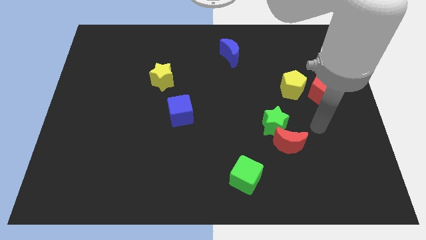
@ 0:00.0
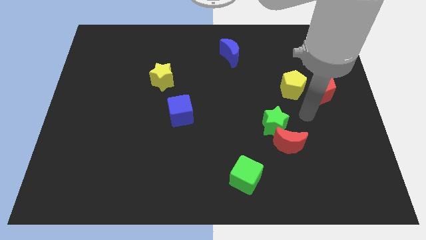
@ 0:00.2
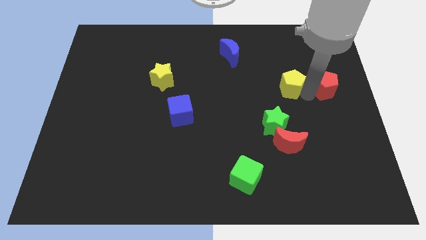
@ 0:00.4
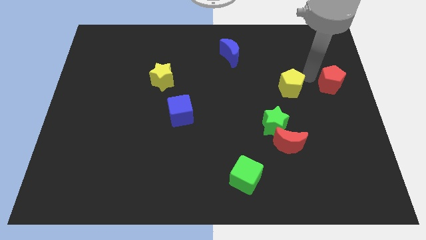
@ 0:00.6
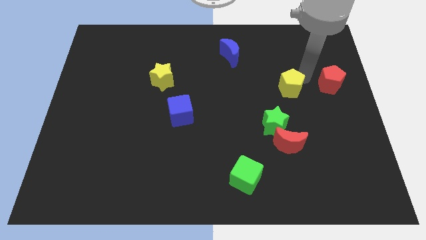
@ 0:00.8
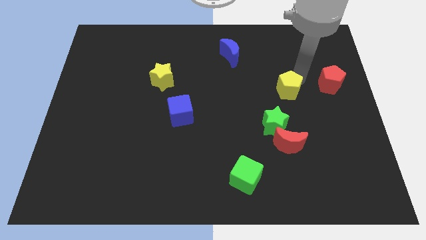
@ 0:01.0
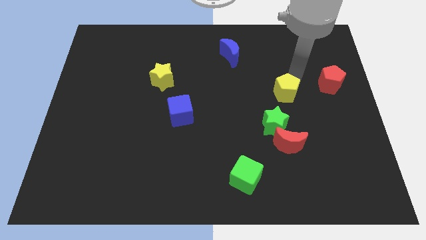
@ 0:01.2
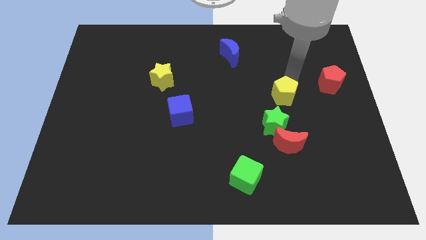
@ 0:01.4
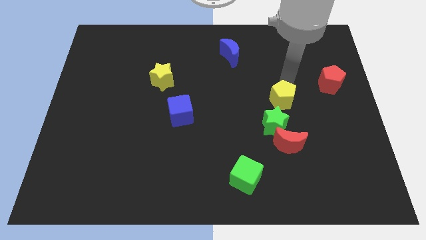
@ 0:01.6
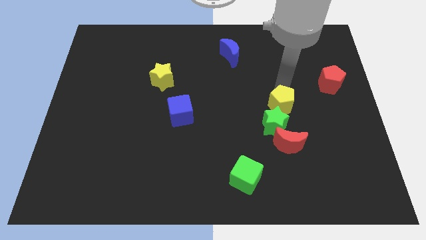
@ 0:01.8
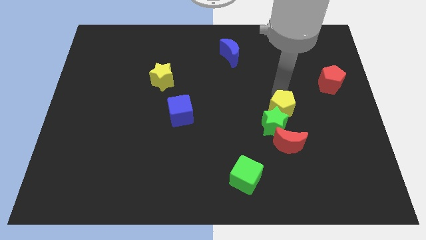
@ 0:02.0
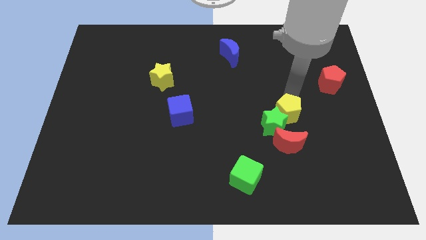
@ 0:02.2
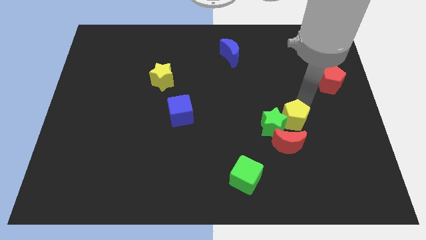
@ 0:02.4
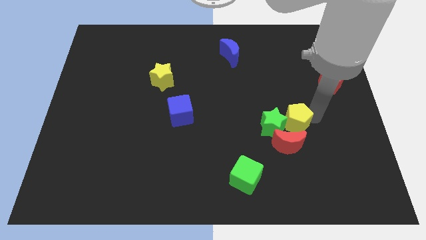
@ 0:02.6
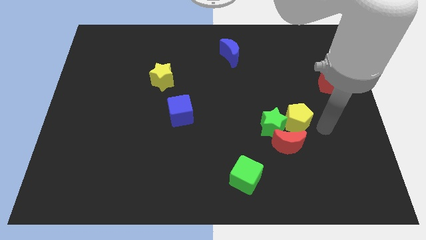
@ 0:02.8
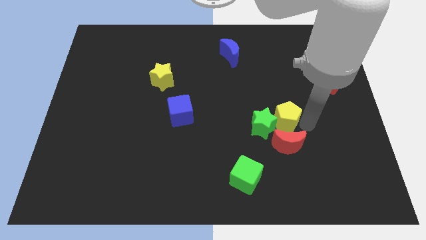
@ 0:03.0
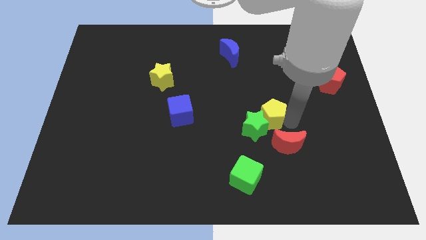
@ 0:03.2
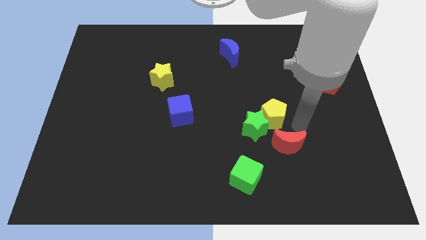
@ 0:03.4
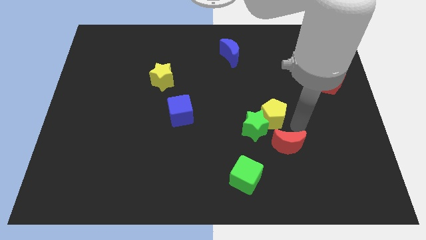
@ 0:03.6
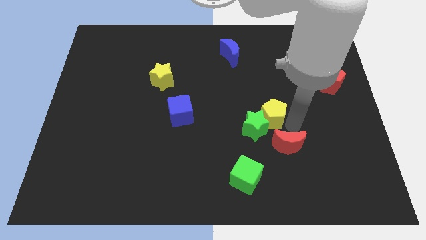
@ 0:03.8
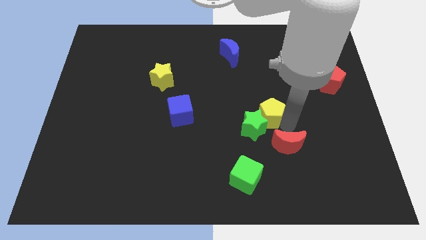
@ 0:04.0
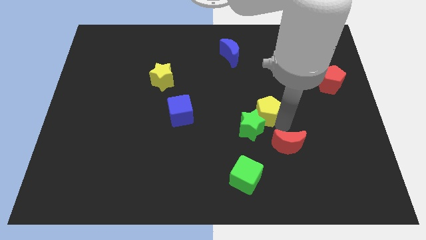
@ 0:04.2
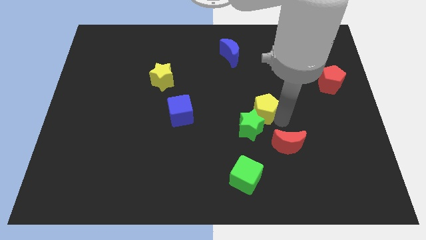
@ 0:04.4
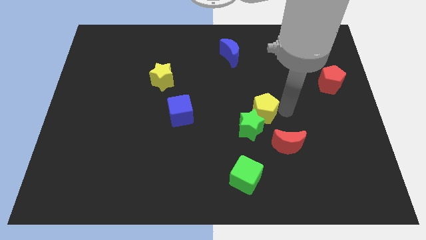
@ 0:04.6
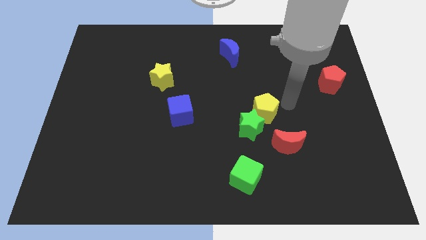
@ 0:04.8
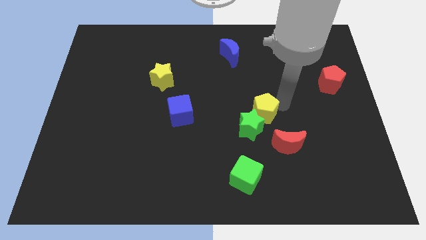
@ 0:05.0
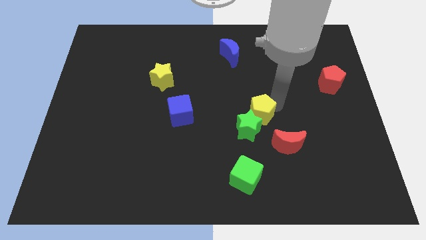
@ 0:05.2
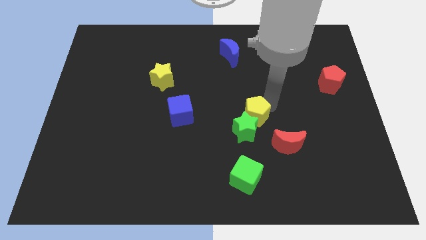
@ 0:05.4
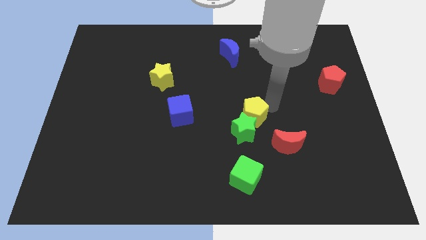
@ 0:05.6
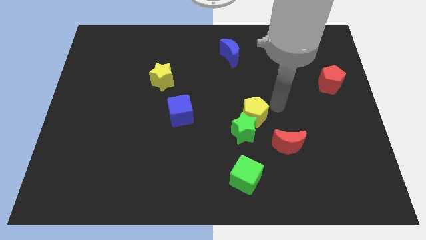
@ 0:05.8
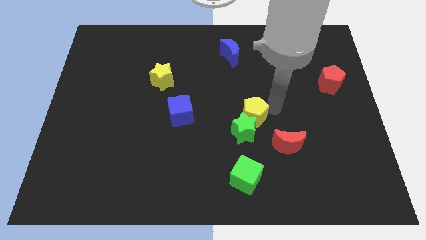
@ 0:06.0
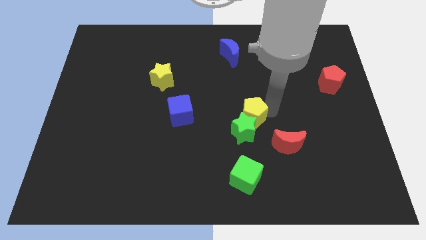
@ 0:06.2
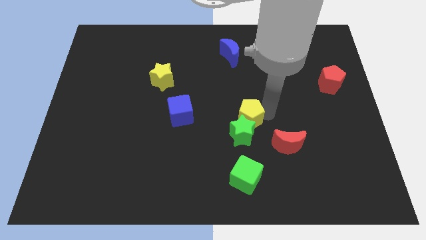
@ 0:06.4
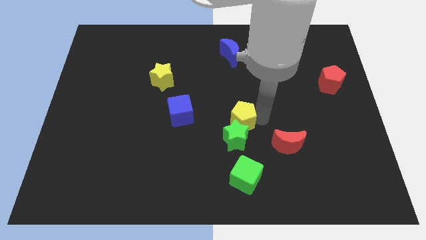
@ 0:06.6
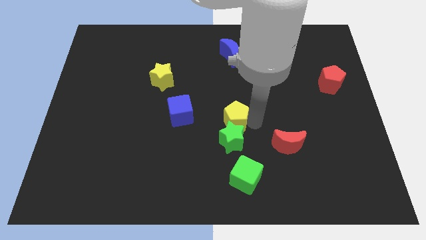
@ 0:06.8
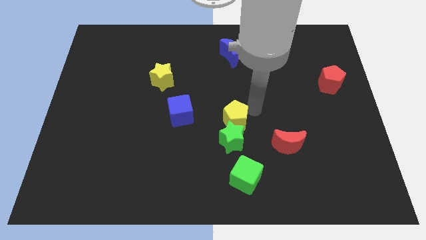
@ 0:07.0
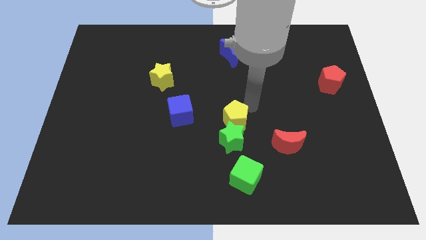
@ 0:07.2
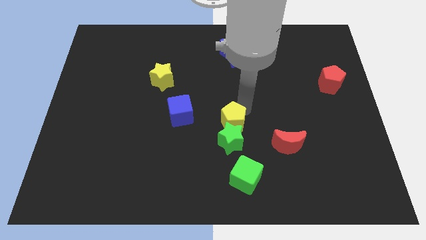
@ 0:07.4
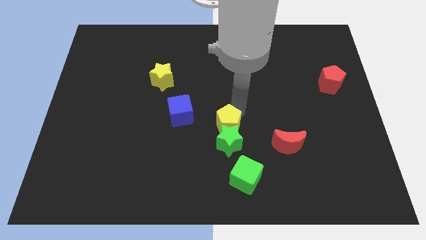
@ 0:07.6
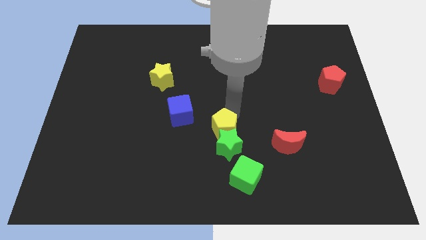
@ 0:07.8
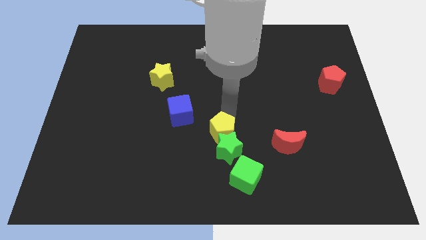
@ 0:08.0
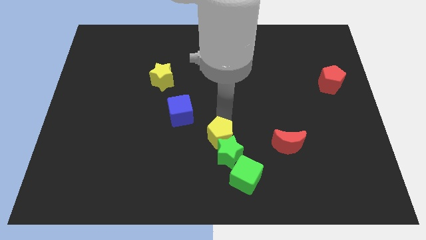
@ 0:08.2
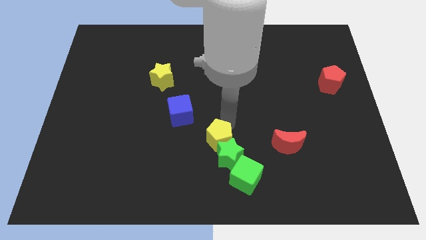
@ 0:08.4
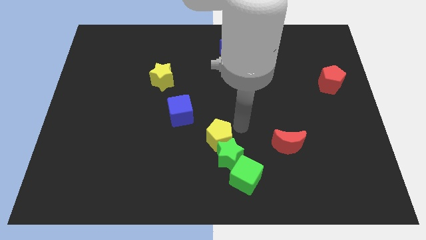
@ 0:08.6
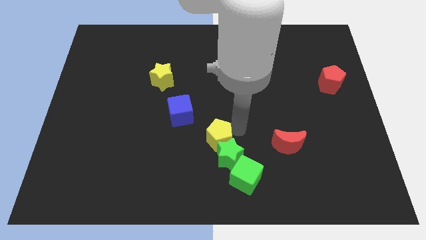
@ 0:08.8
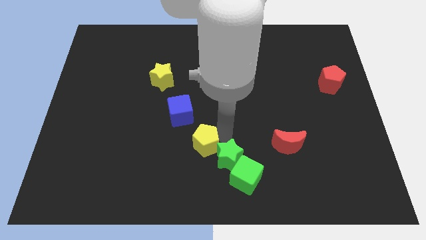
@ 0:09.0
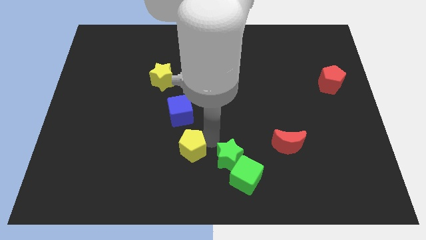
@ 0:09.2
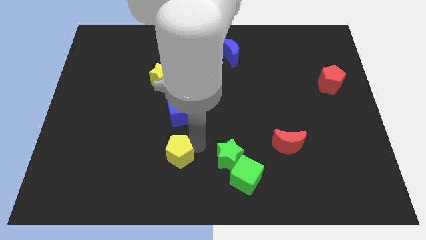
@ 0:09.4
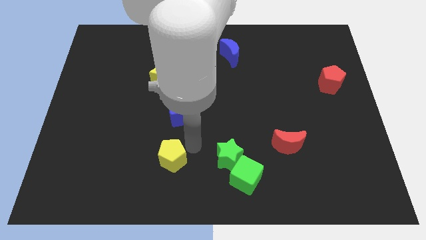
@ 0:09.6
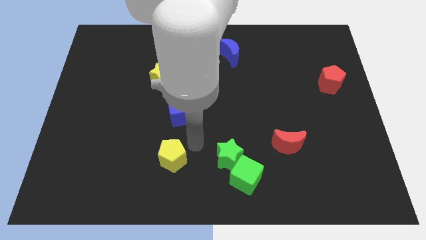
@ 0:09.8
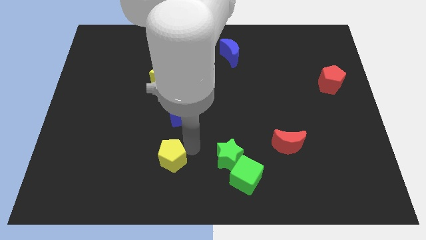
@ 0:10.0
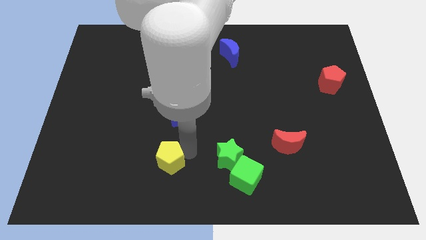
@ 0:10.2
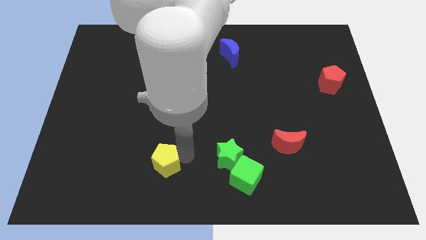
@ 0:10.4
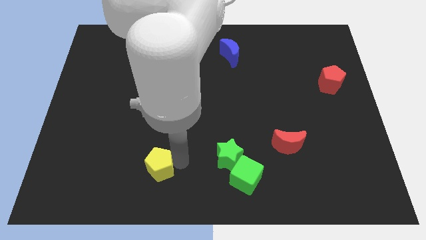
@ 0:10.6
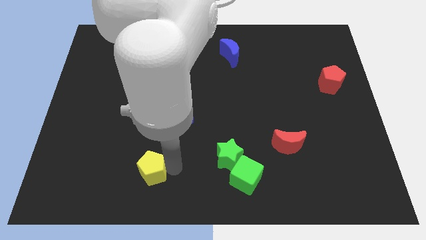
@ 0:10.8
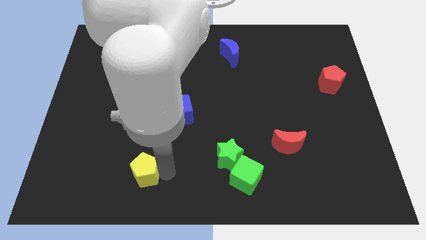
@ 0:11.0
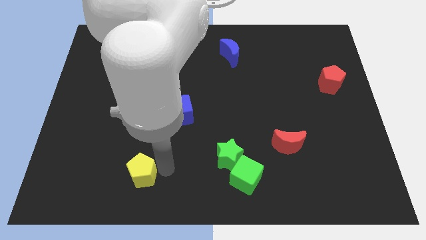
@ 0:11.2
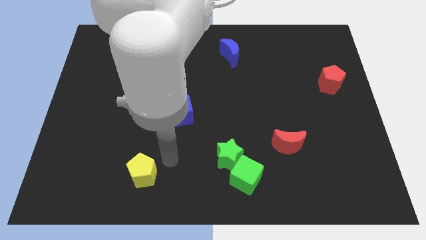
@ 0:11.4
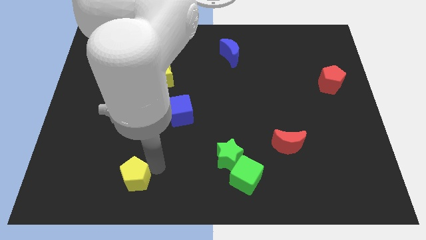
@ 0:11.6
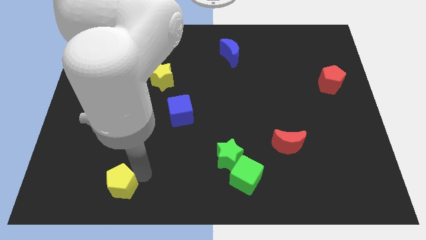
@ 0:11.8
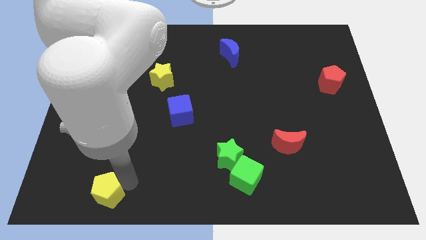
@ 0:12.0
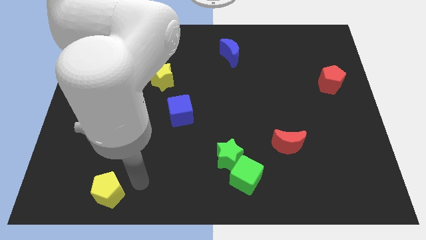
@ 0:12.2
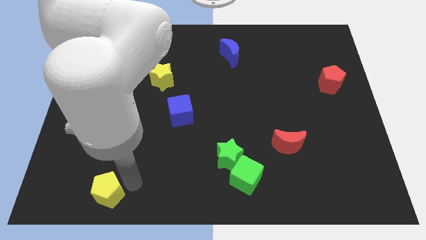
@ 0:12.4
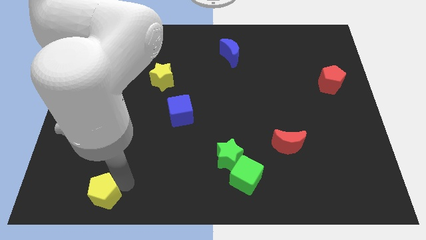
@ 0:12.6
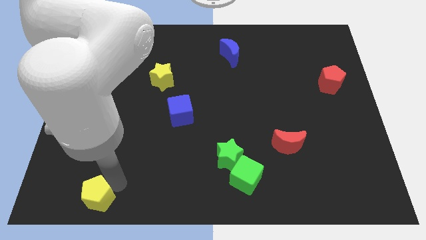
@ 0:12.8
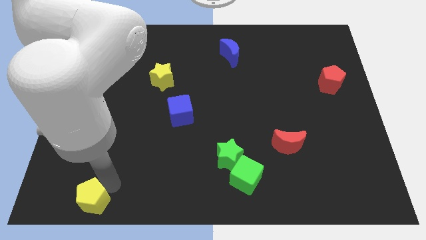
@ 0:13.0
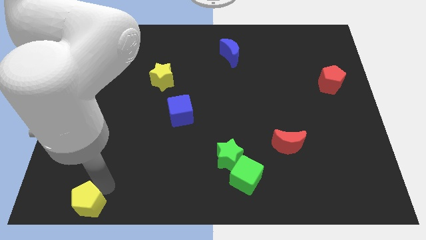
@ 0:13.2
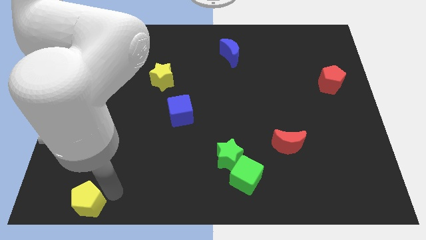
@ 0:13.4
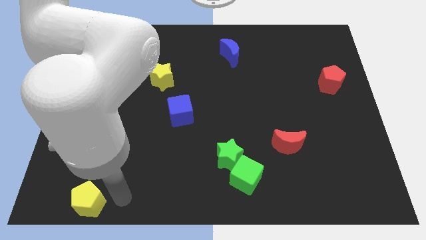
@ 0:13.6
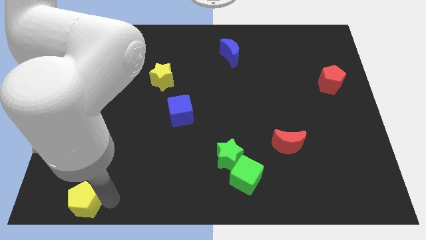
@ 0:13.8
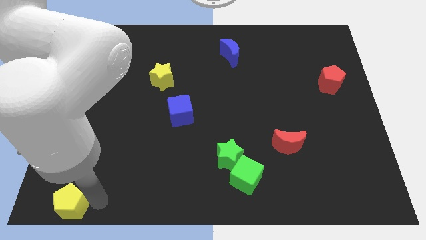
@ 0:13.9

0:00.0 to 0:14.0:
move the yellow pentagon to the lower left corner
